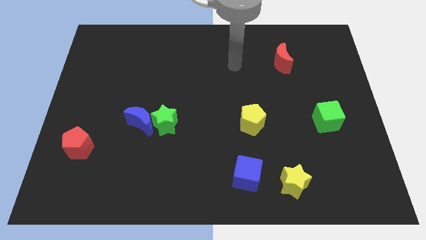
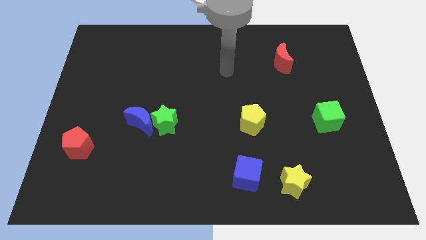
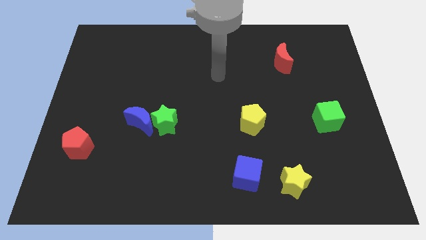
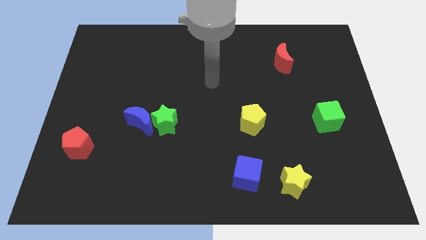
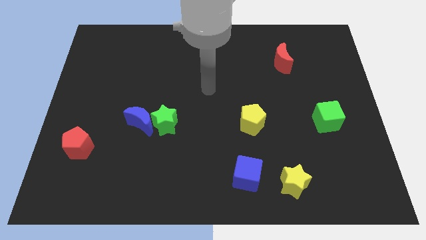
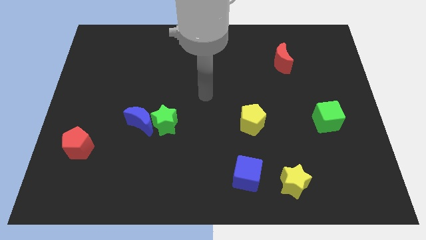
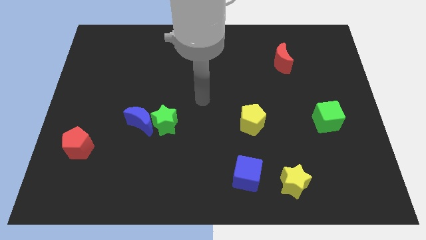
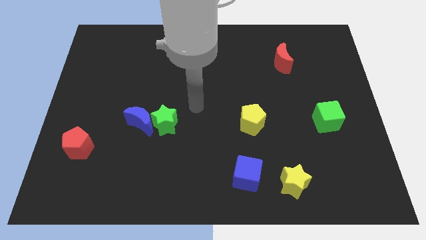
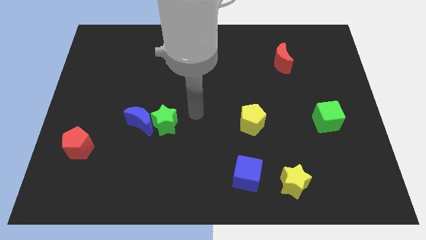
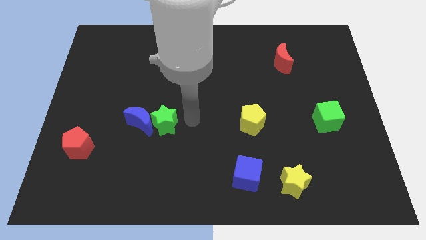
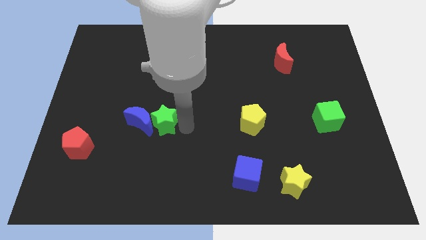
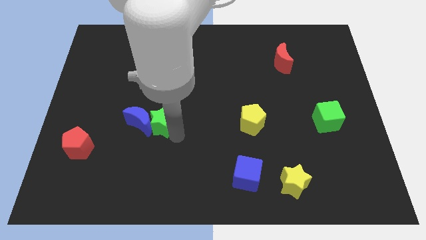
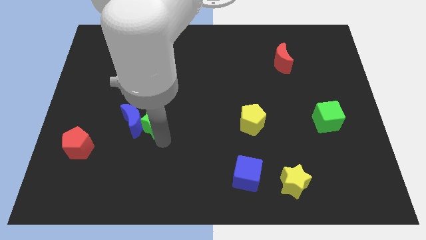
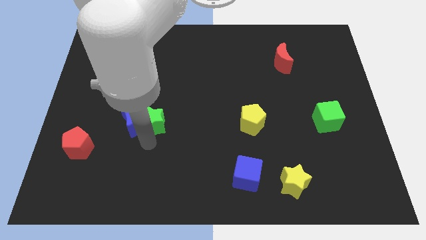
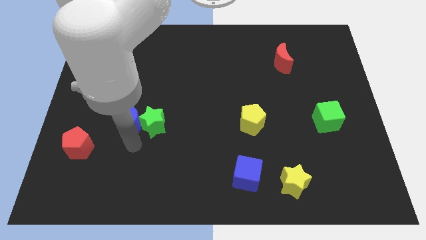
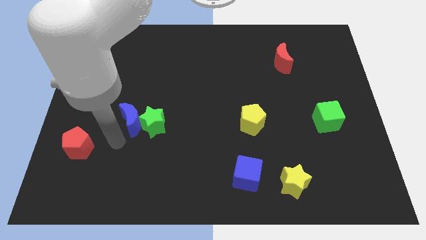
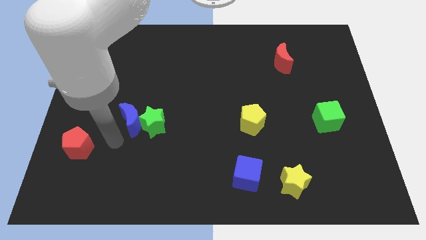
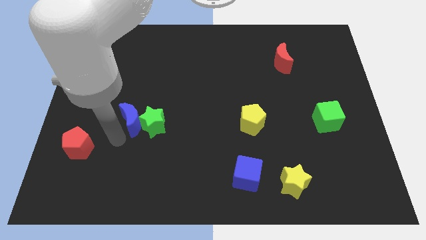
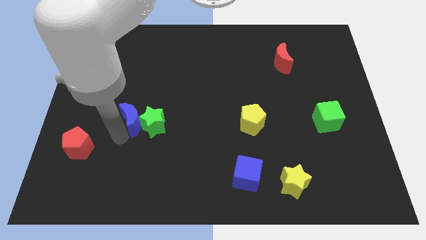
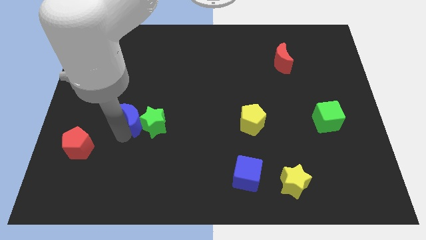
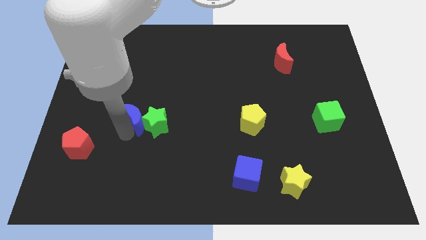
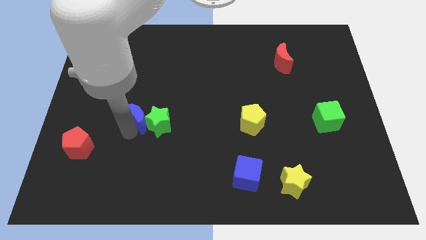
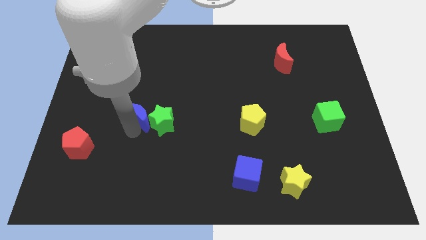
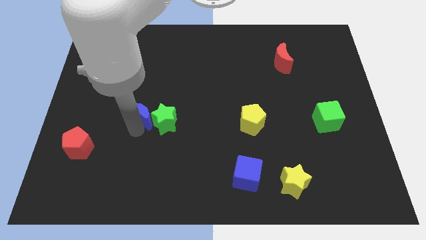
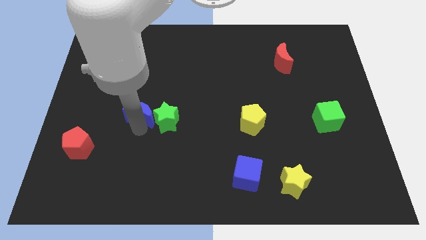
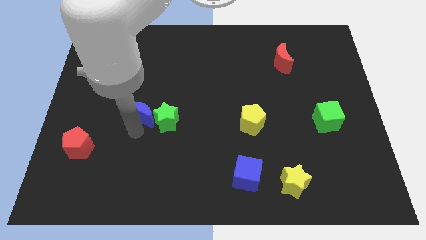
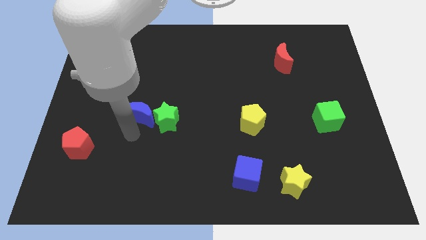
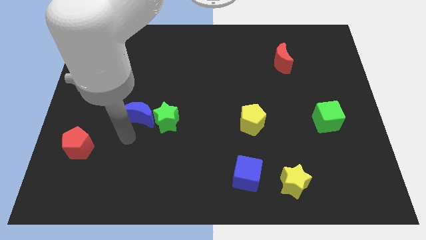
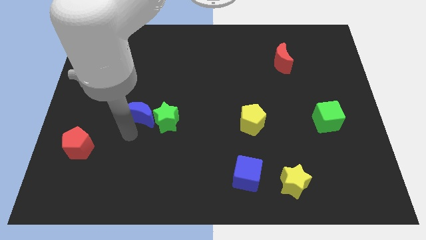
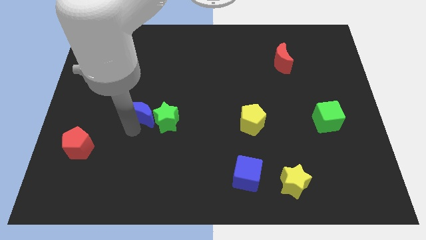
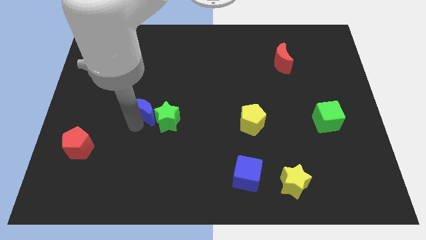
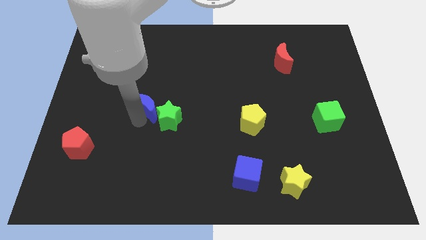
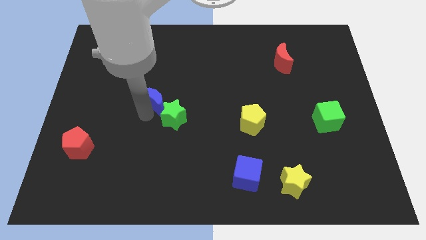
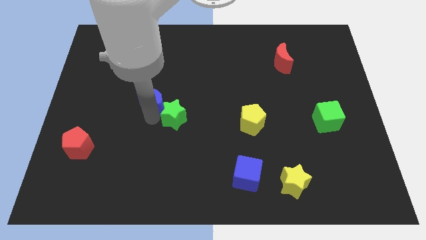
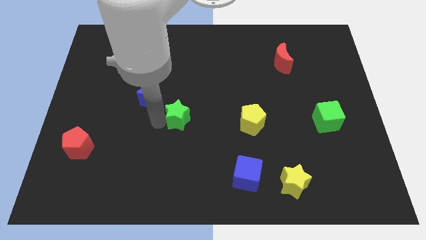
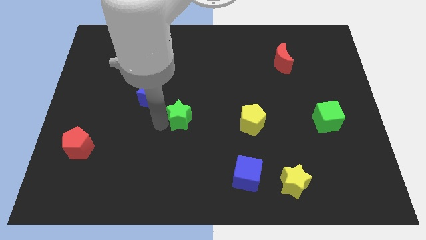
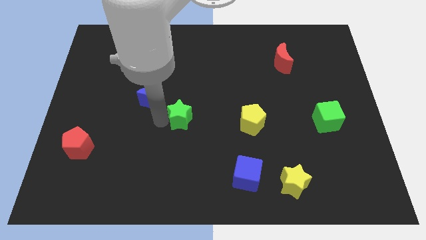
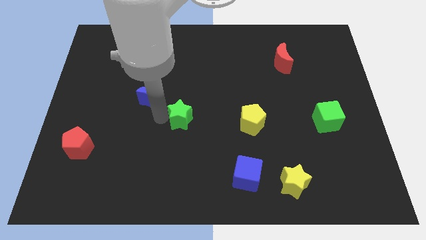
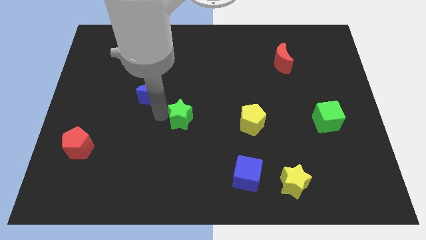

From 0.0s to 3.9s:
push the blue moon somewhat upwards

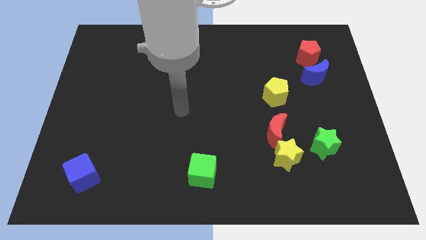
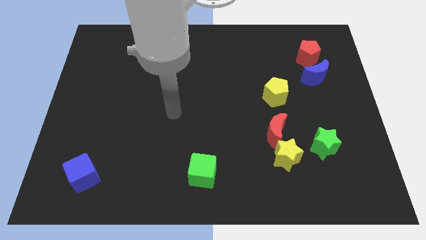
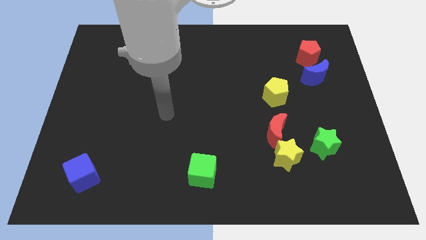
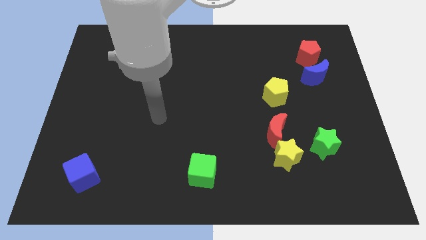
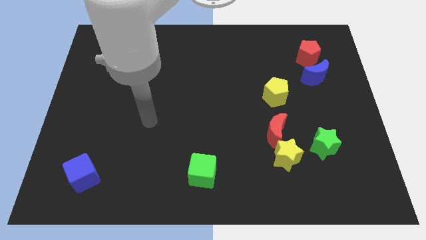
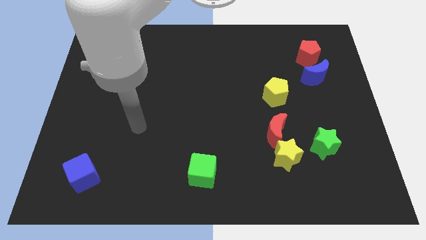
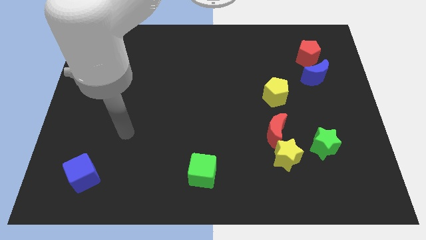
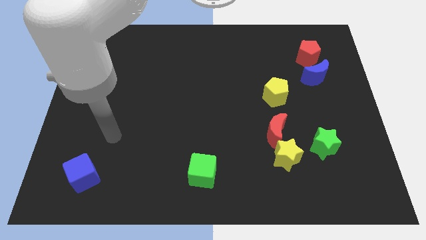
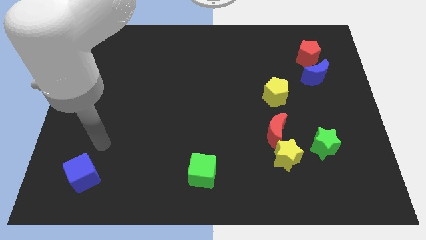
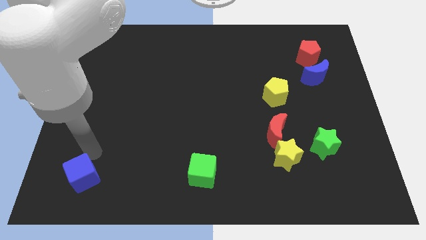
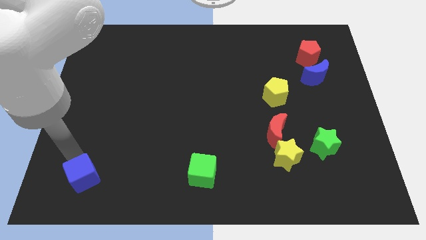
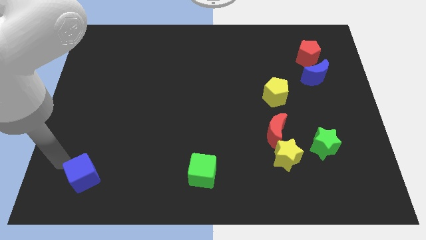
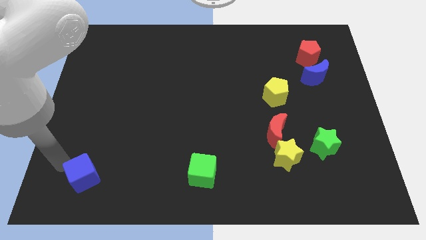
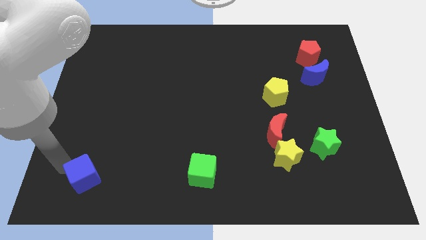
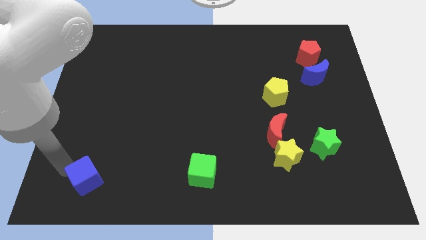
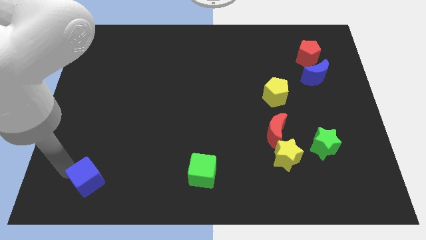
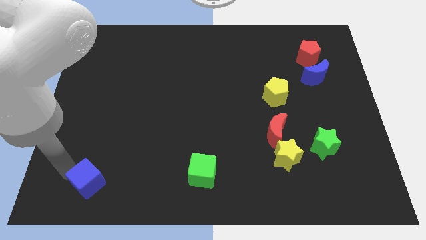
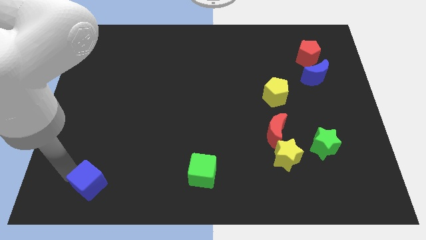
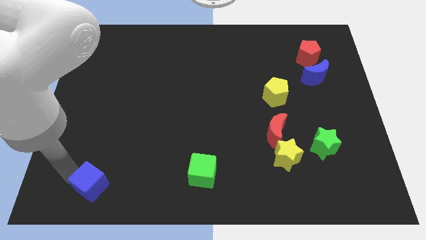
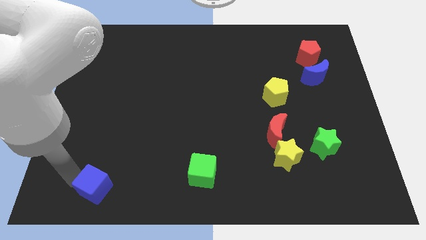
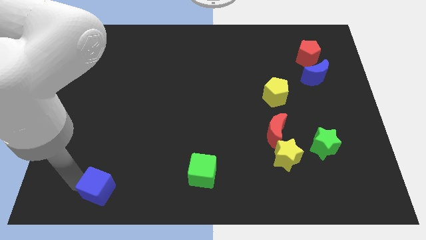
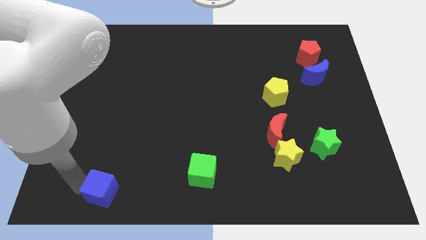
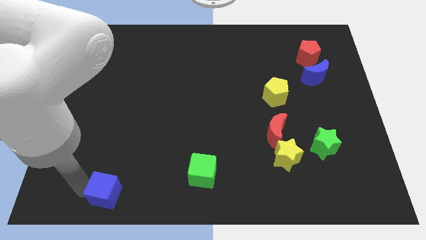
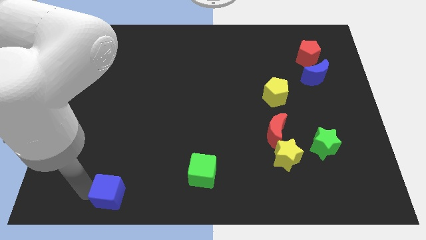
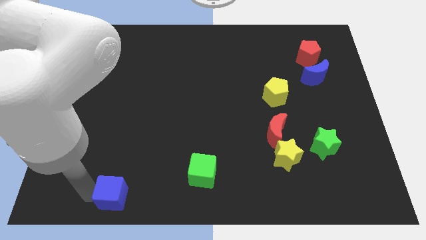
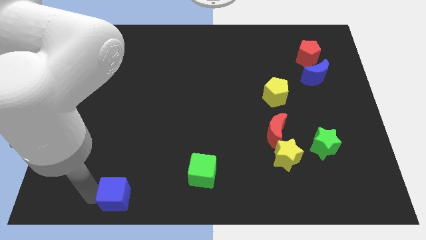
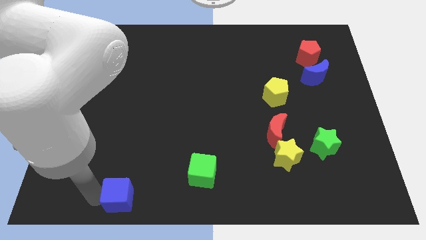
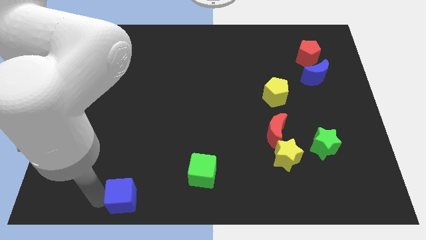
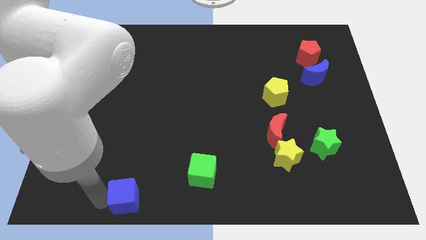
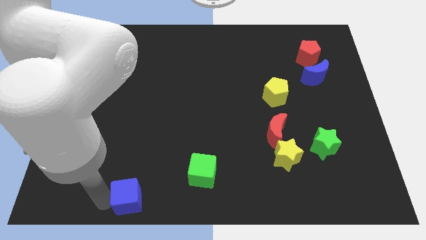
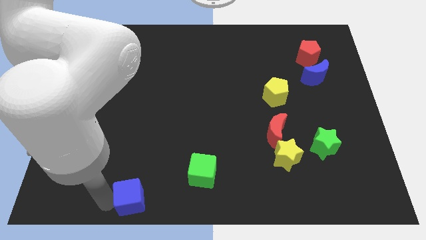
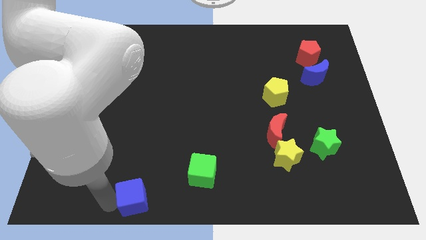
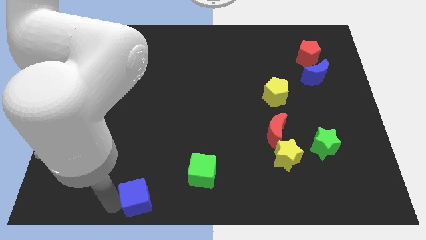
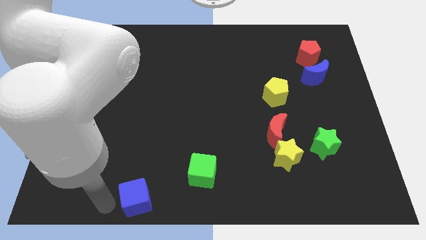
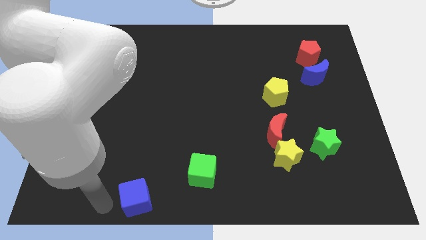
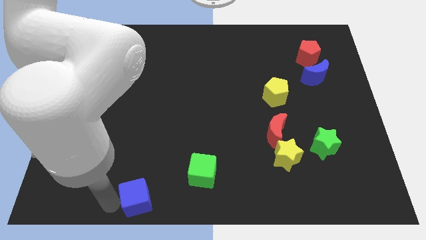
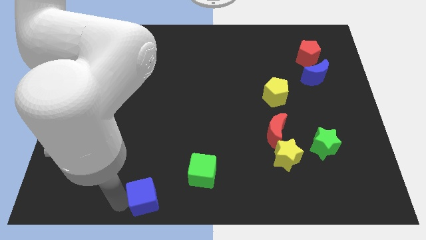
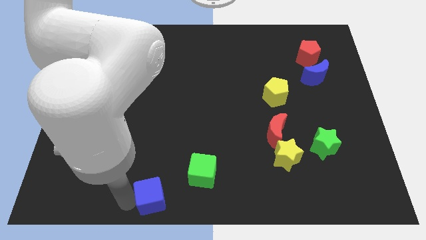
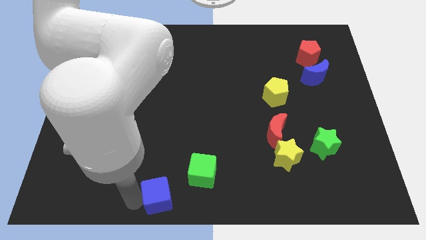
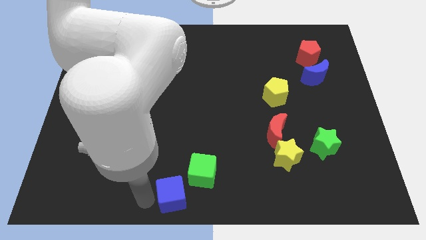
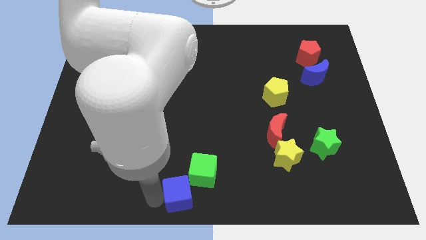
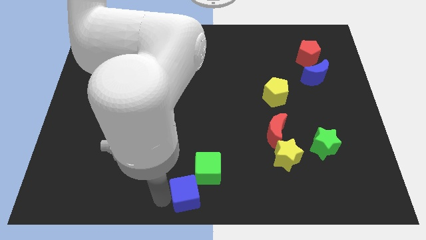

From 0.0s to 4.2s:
slide the blue cube right

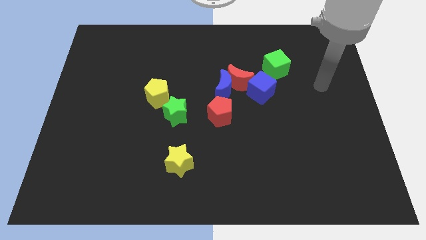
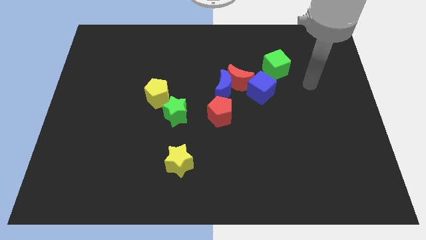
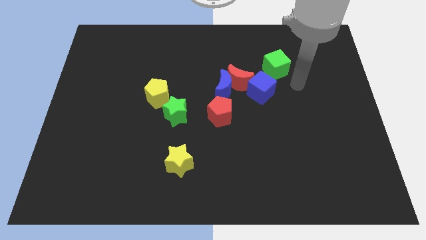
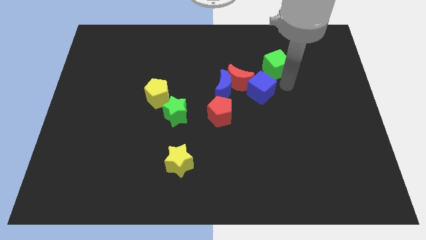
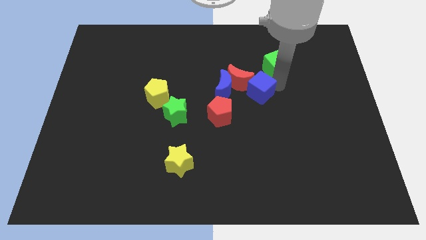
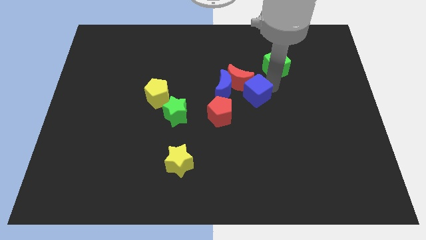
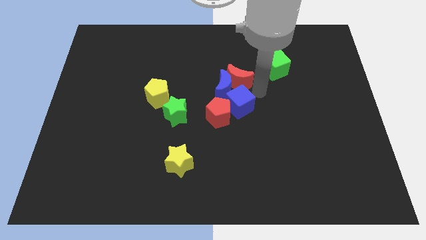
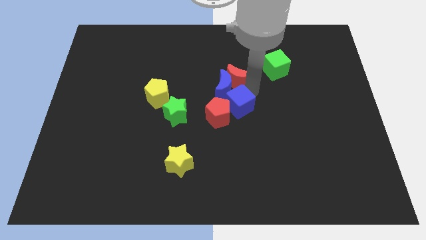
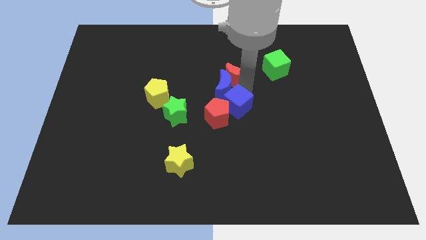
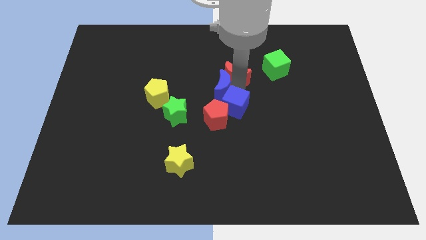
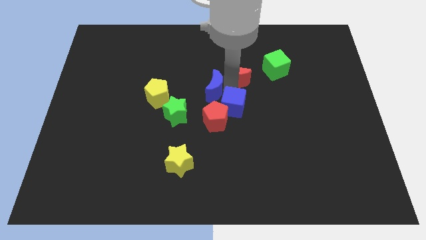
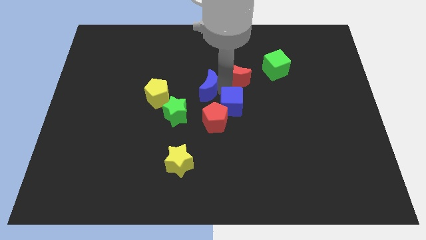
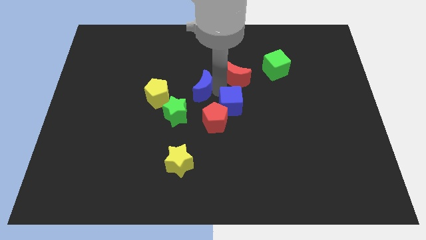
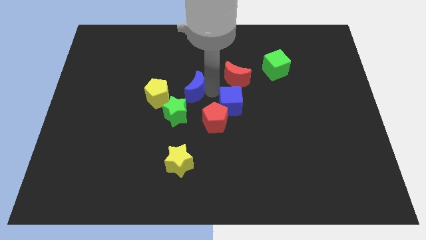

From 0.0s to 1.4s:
push the blue moon somewhat to the left
